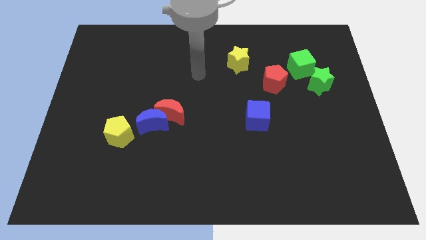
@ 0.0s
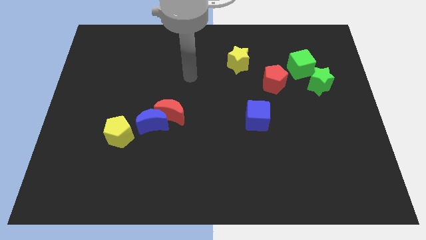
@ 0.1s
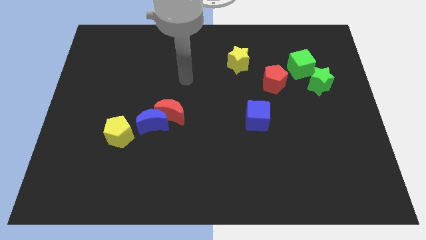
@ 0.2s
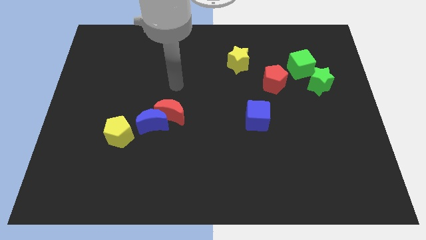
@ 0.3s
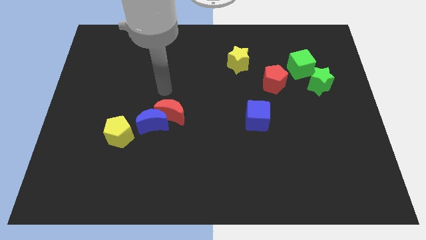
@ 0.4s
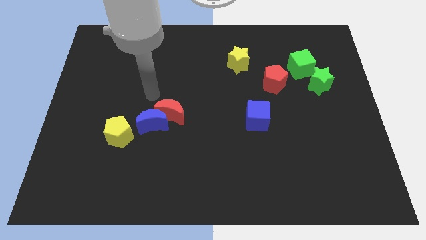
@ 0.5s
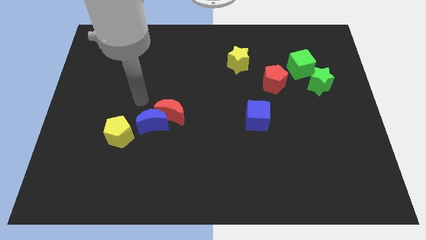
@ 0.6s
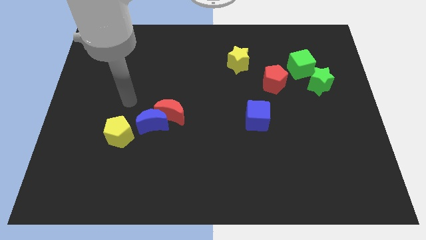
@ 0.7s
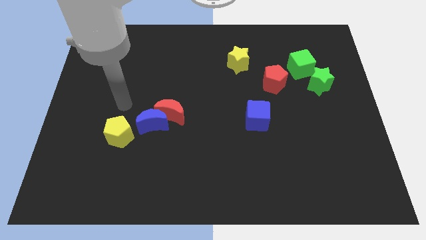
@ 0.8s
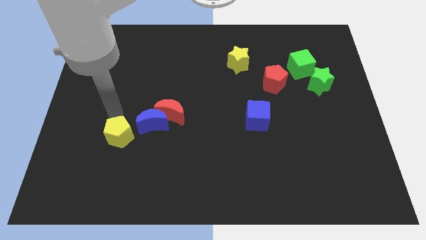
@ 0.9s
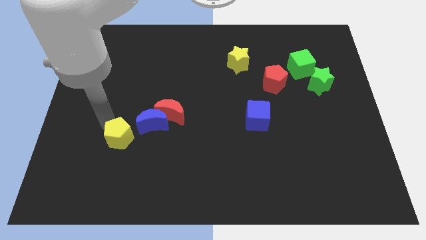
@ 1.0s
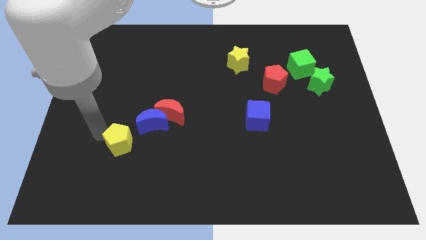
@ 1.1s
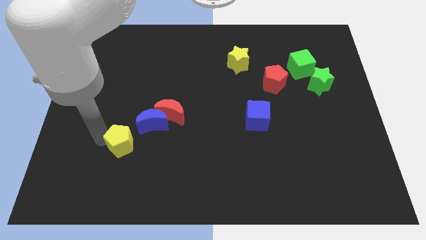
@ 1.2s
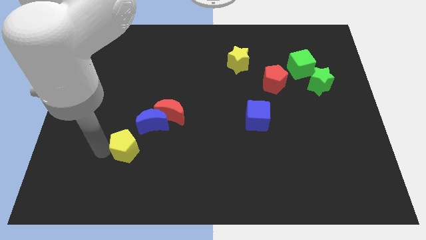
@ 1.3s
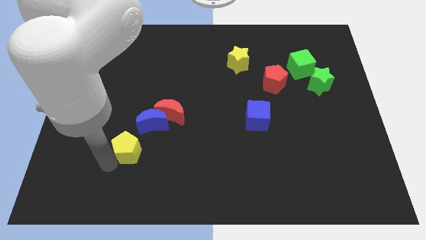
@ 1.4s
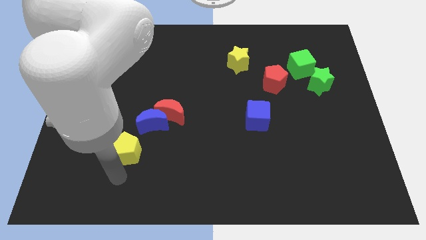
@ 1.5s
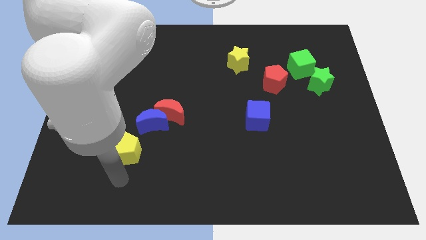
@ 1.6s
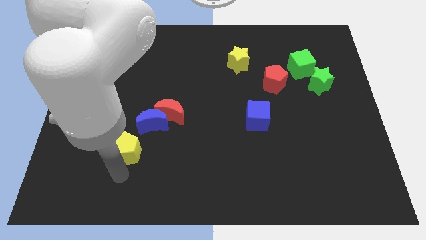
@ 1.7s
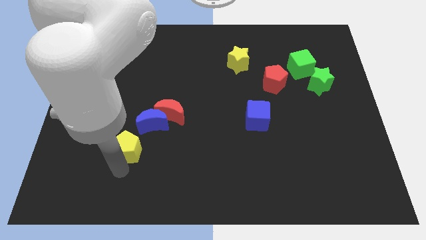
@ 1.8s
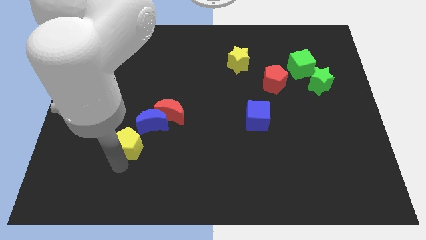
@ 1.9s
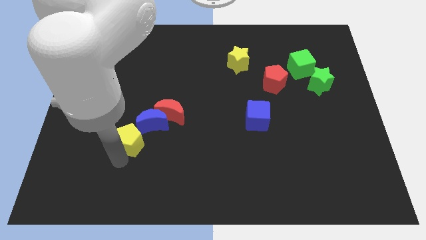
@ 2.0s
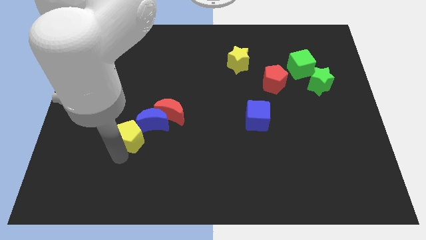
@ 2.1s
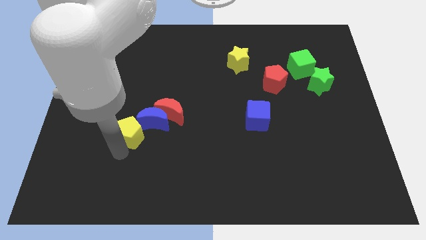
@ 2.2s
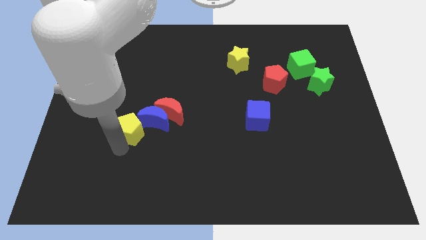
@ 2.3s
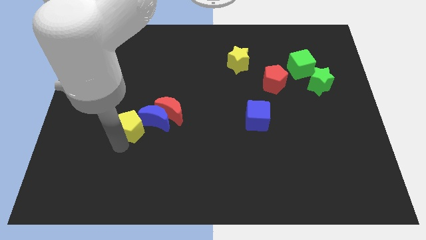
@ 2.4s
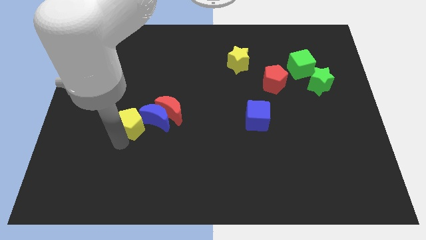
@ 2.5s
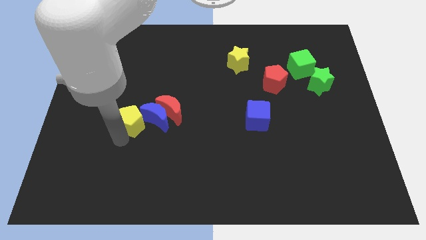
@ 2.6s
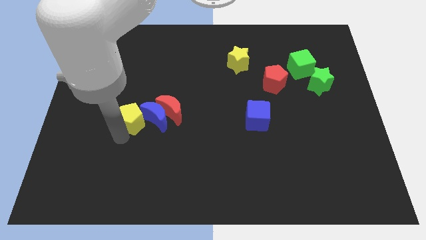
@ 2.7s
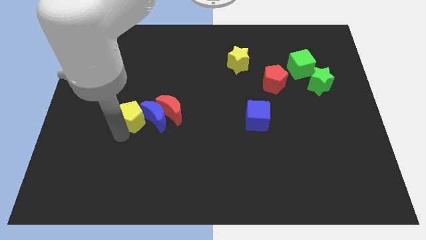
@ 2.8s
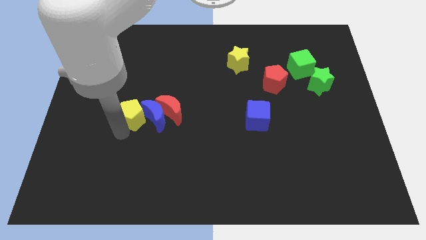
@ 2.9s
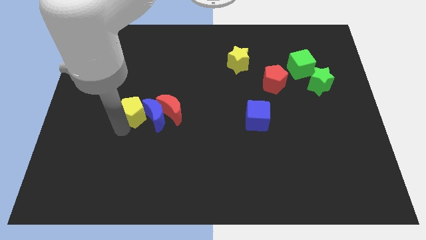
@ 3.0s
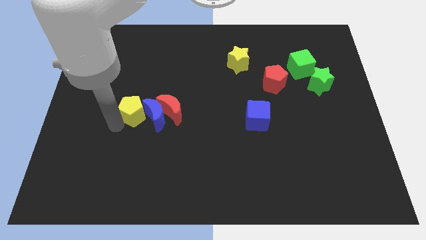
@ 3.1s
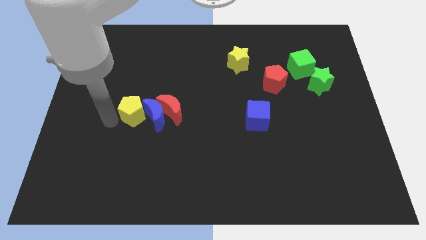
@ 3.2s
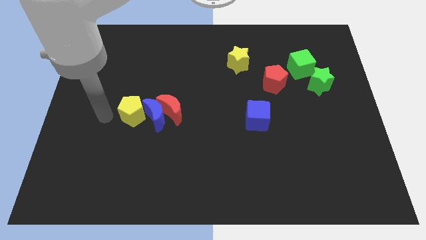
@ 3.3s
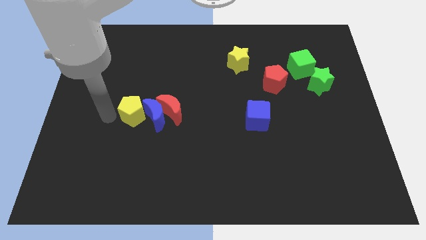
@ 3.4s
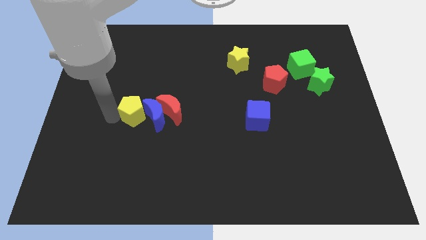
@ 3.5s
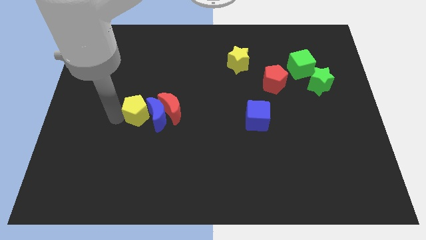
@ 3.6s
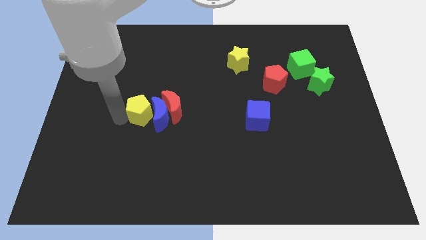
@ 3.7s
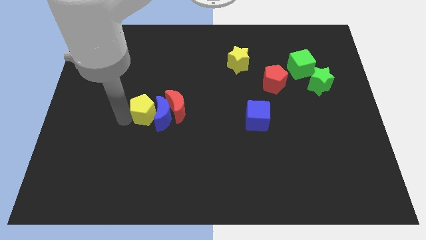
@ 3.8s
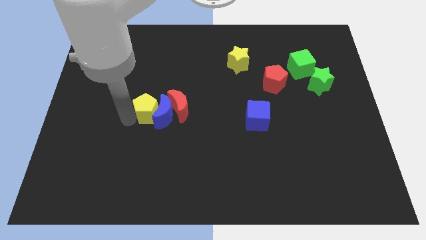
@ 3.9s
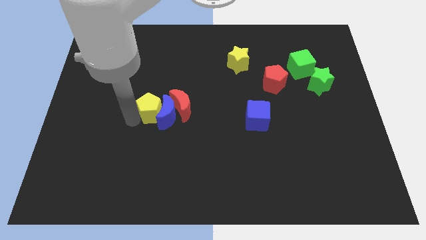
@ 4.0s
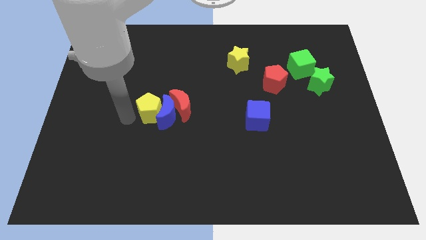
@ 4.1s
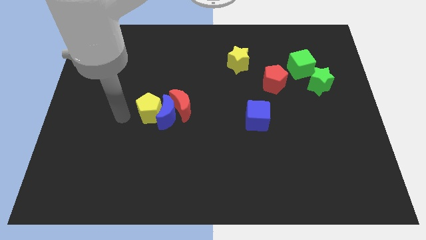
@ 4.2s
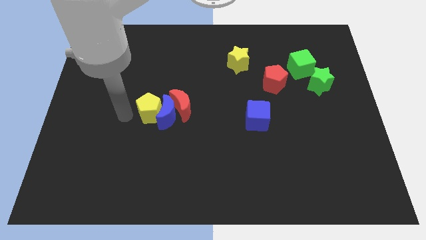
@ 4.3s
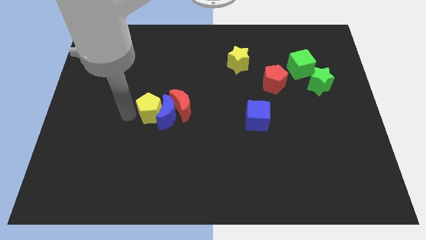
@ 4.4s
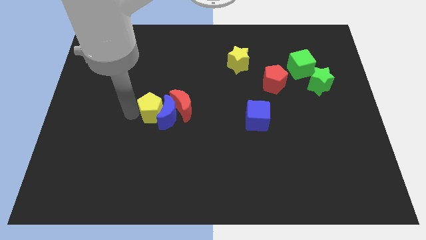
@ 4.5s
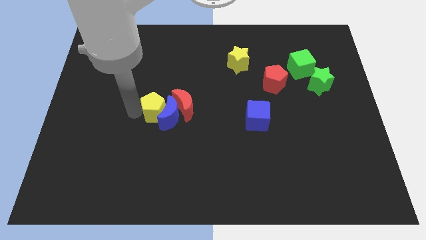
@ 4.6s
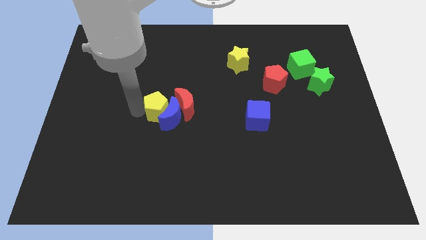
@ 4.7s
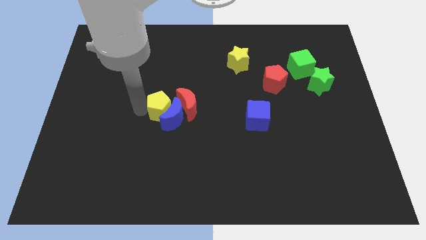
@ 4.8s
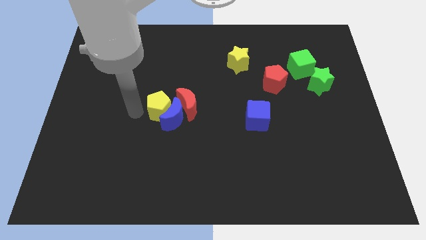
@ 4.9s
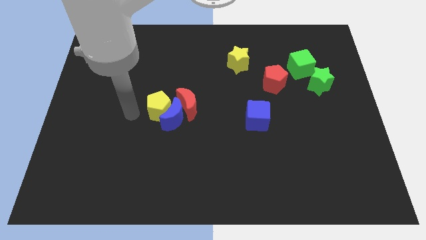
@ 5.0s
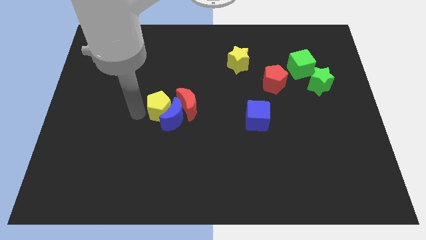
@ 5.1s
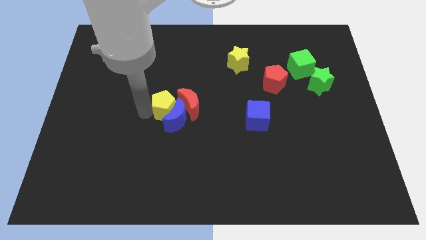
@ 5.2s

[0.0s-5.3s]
move the yellow pentagon to the red moon

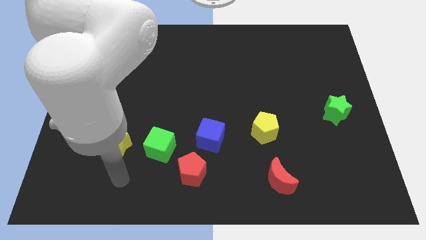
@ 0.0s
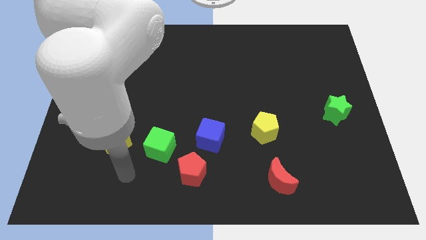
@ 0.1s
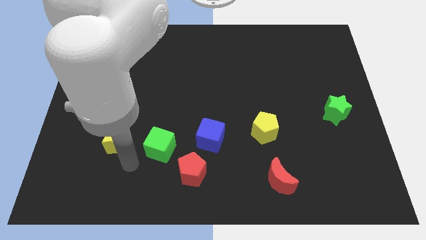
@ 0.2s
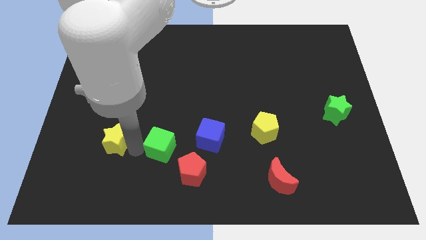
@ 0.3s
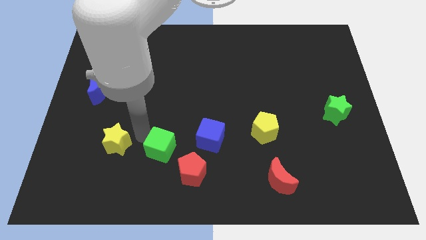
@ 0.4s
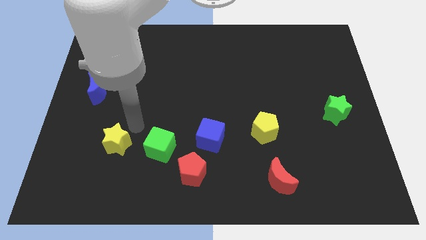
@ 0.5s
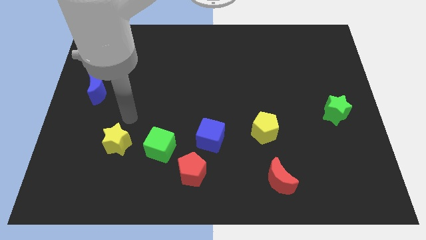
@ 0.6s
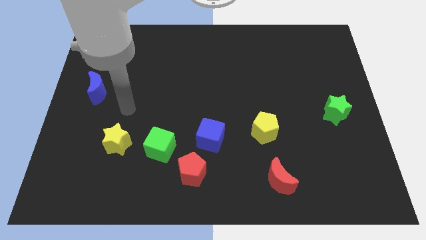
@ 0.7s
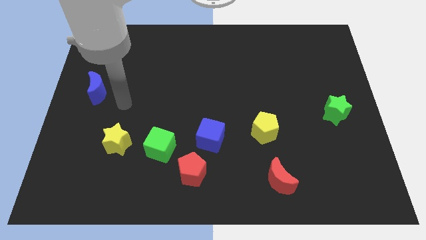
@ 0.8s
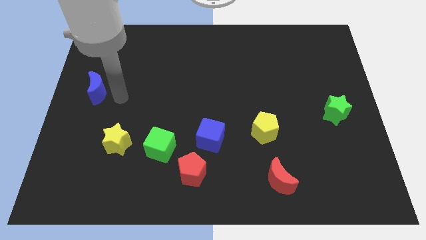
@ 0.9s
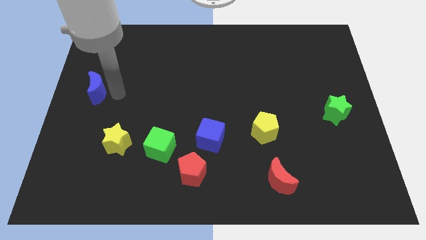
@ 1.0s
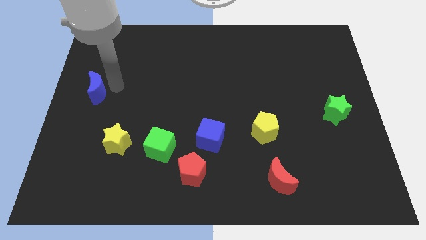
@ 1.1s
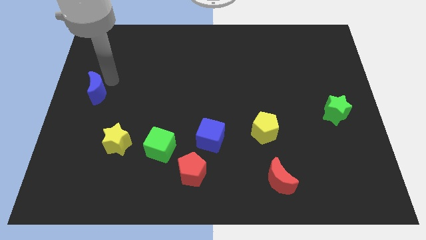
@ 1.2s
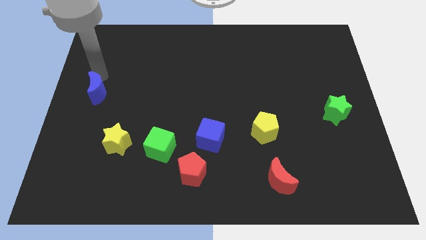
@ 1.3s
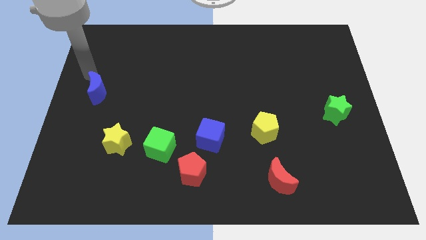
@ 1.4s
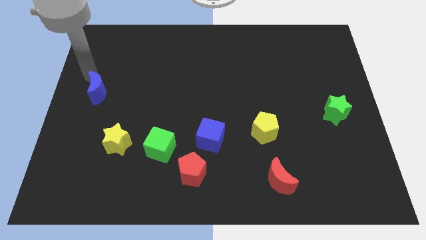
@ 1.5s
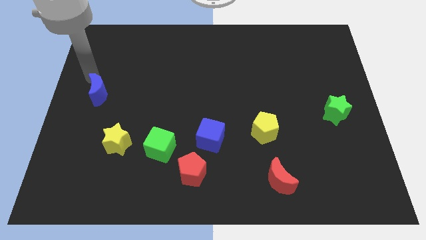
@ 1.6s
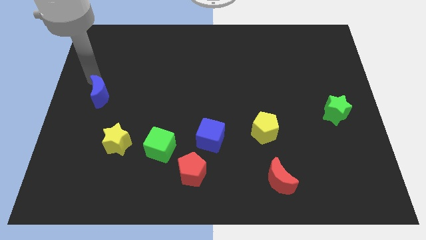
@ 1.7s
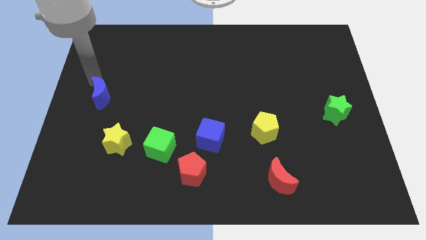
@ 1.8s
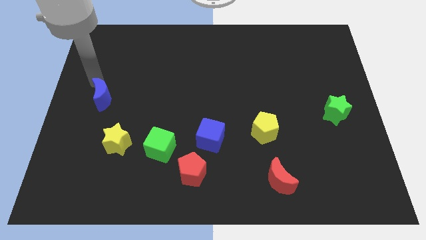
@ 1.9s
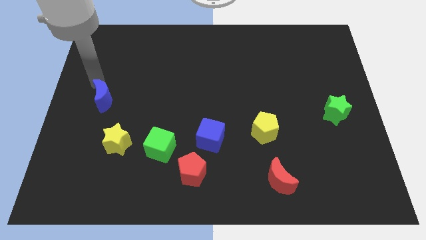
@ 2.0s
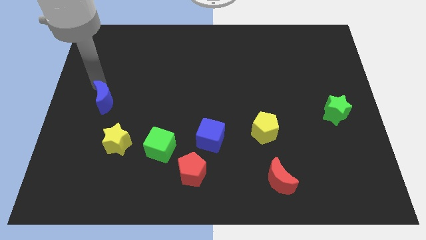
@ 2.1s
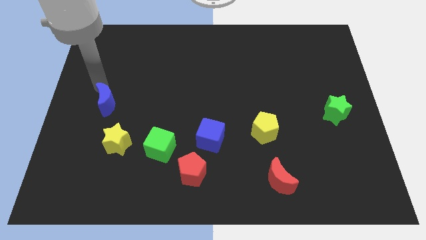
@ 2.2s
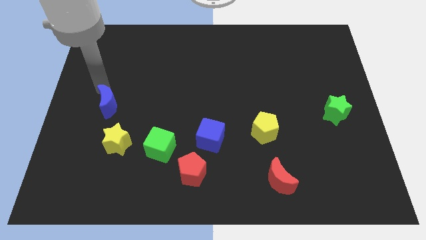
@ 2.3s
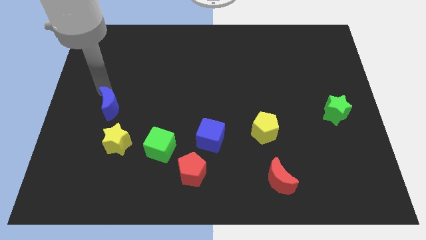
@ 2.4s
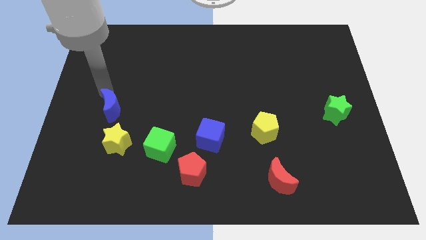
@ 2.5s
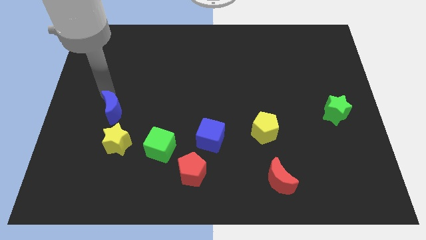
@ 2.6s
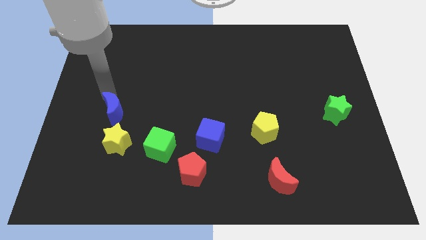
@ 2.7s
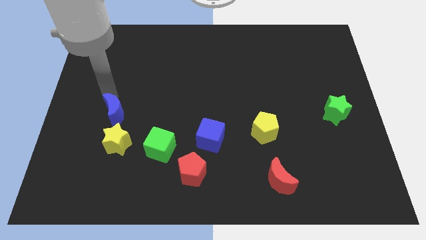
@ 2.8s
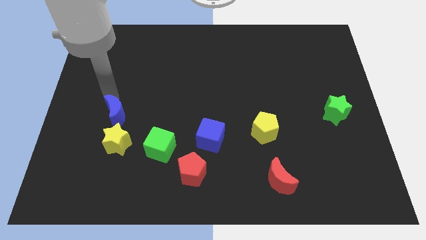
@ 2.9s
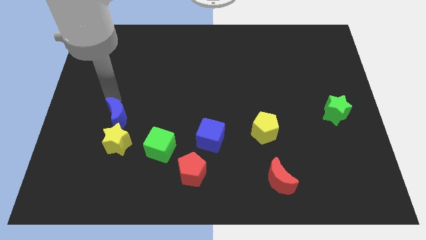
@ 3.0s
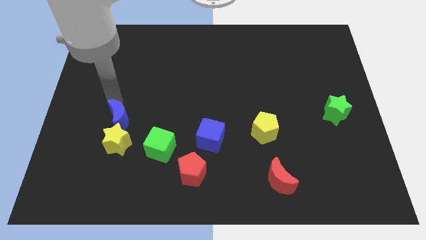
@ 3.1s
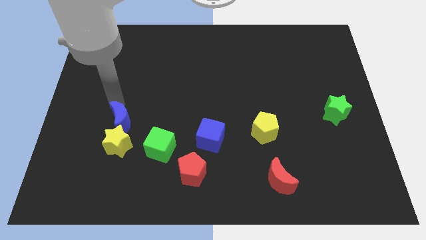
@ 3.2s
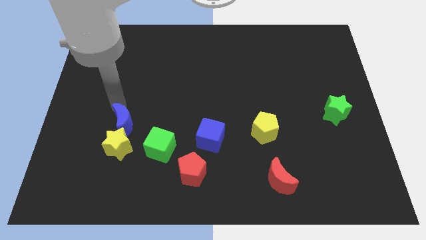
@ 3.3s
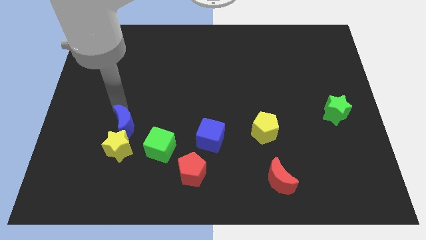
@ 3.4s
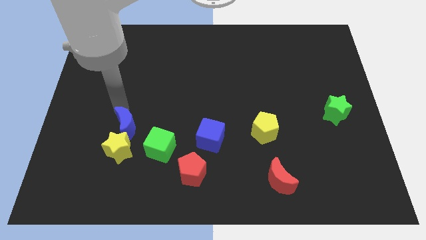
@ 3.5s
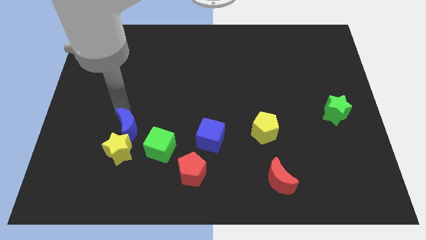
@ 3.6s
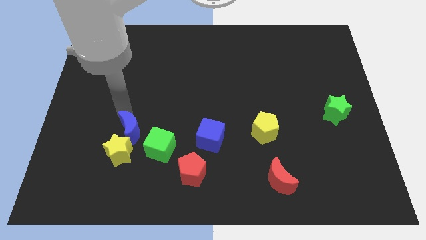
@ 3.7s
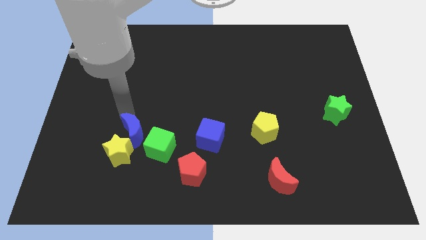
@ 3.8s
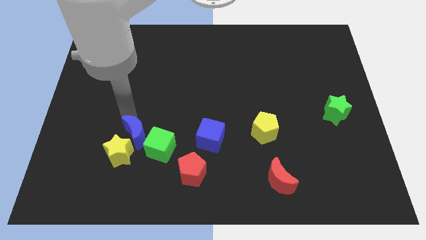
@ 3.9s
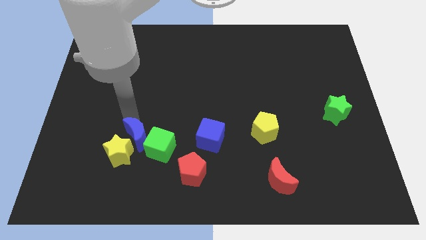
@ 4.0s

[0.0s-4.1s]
move the blue moon next to the green cube
